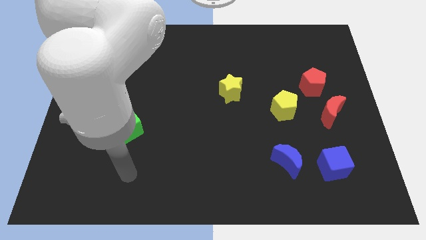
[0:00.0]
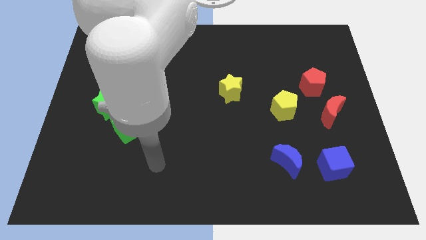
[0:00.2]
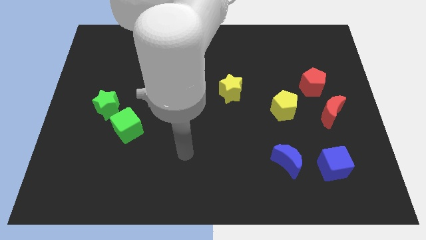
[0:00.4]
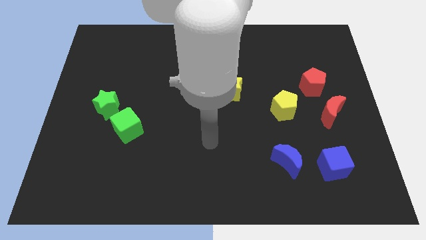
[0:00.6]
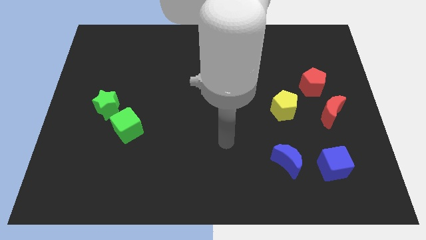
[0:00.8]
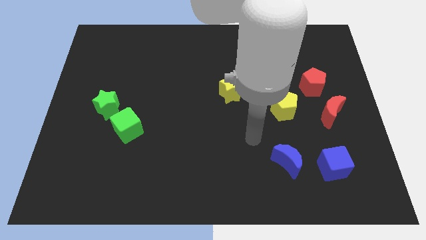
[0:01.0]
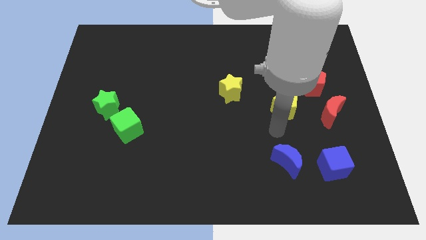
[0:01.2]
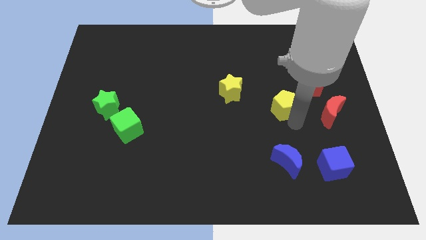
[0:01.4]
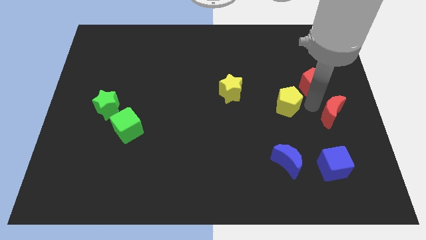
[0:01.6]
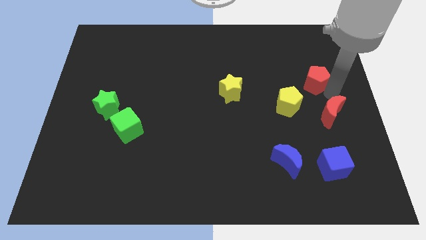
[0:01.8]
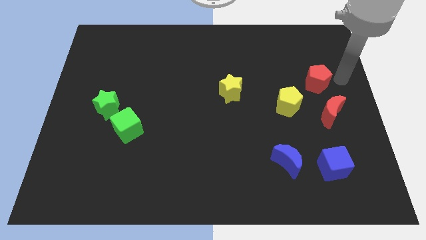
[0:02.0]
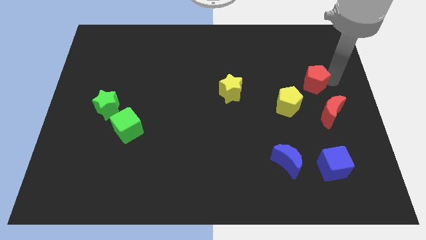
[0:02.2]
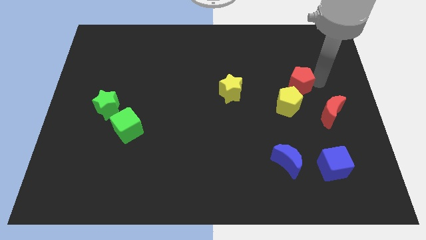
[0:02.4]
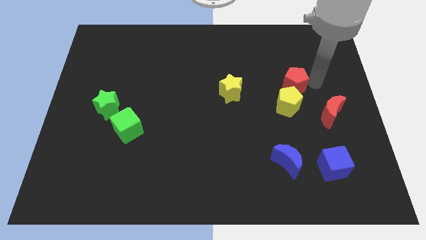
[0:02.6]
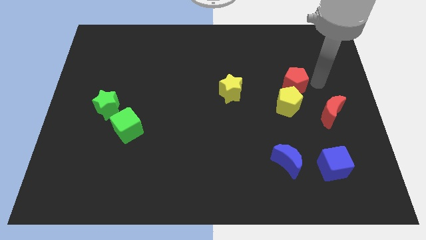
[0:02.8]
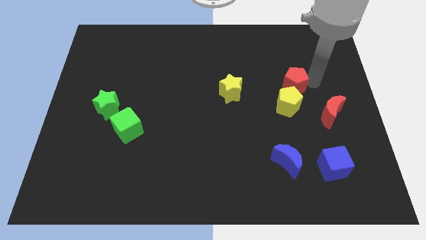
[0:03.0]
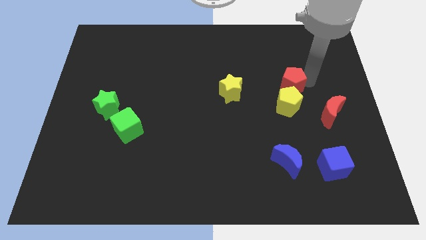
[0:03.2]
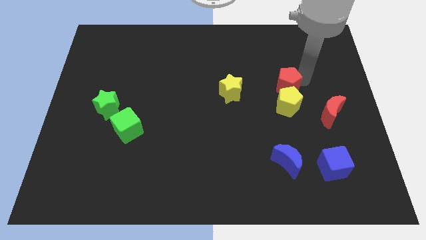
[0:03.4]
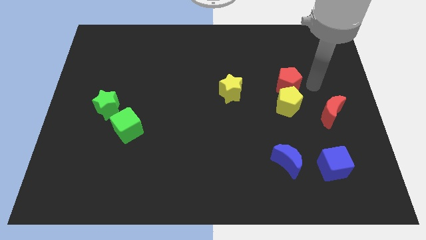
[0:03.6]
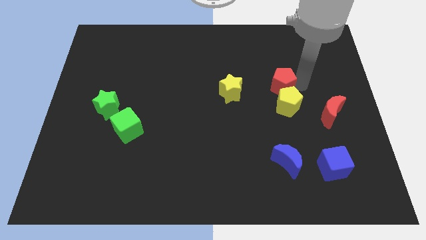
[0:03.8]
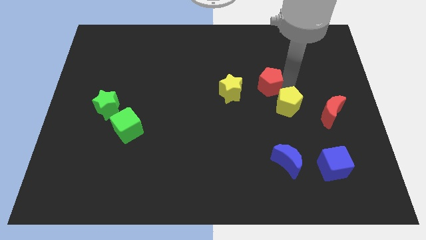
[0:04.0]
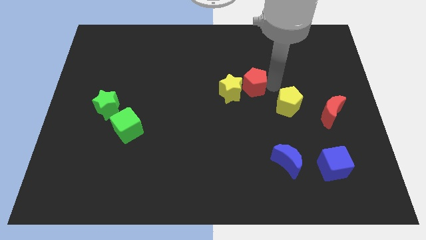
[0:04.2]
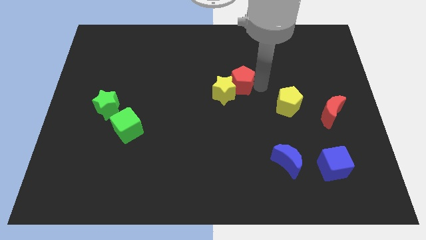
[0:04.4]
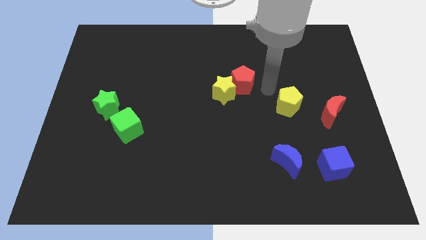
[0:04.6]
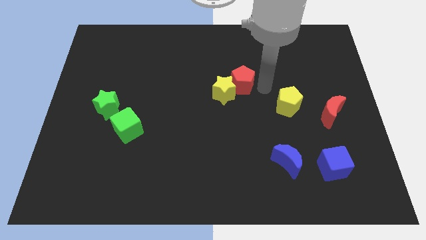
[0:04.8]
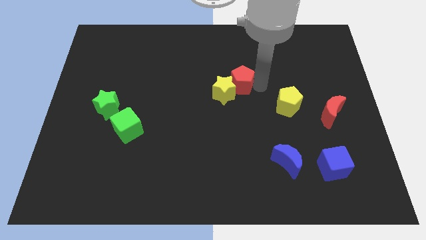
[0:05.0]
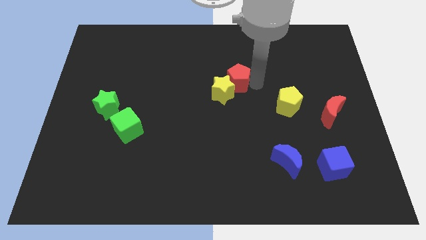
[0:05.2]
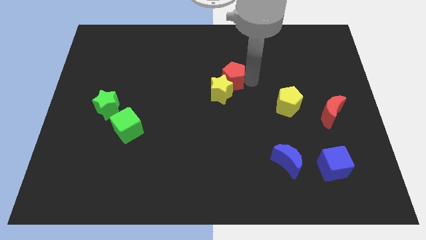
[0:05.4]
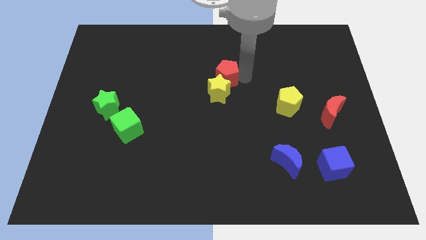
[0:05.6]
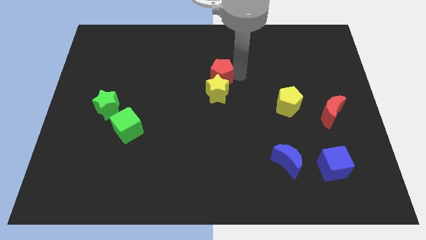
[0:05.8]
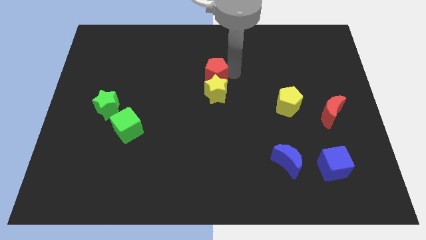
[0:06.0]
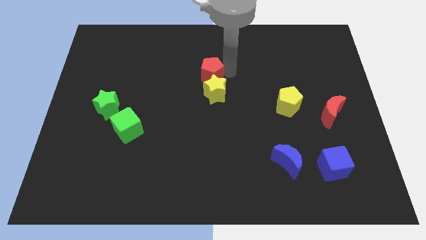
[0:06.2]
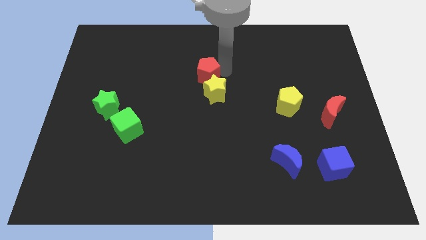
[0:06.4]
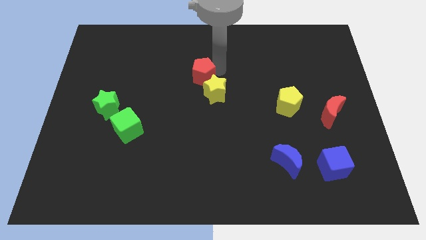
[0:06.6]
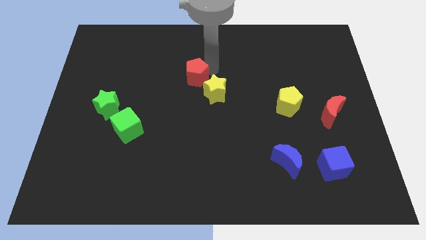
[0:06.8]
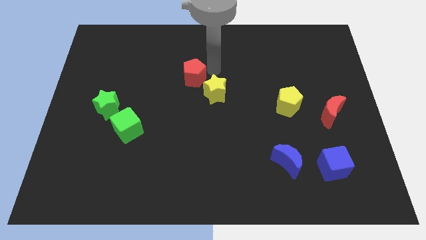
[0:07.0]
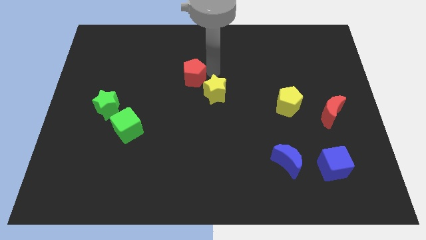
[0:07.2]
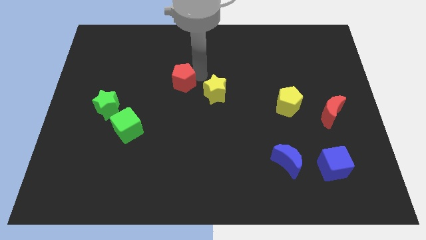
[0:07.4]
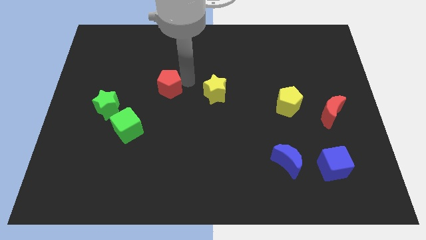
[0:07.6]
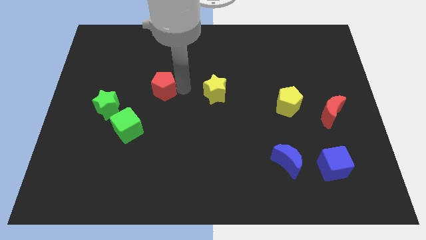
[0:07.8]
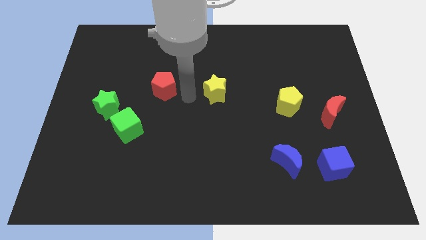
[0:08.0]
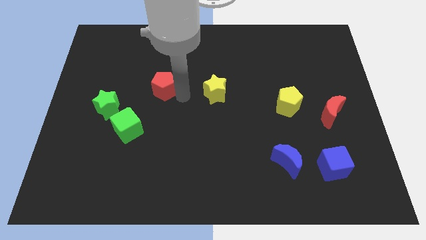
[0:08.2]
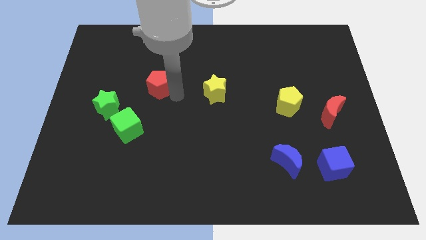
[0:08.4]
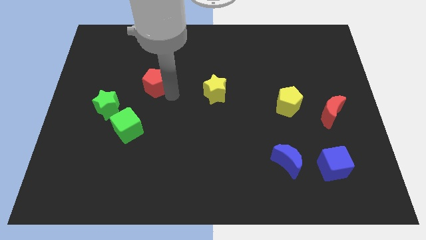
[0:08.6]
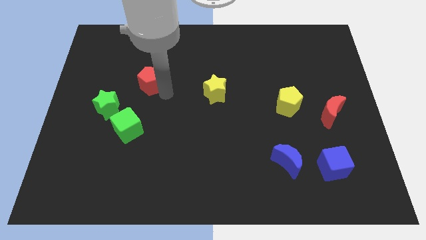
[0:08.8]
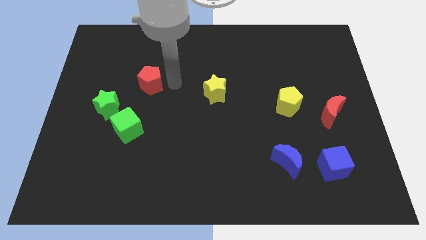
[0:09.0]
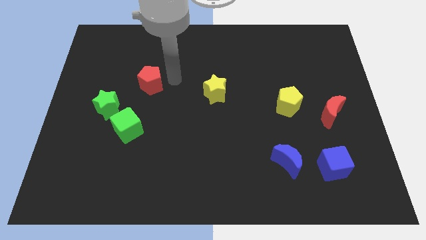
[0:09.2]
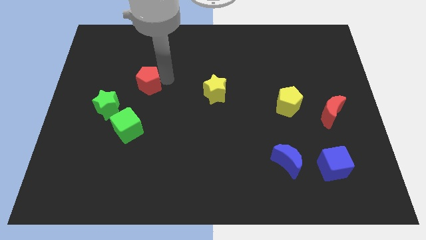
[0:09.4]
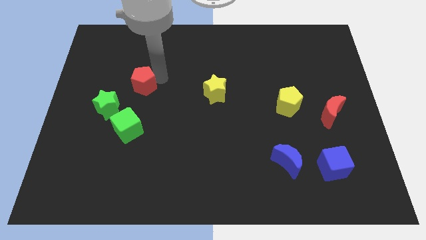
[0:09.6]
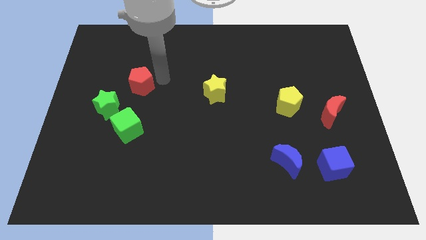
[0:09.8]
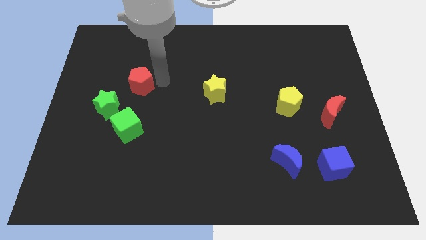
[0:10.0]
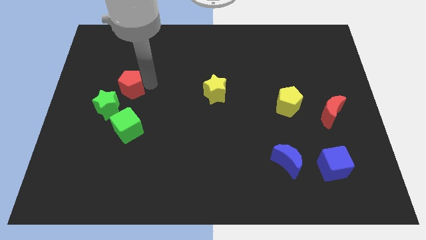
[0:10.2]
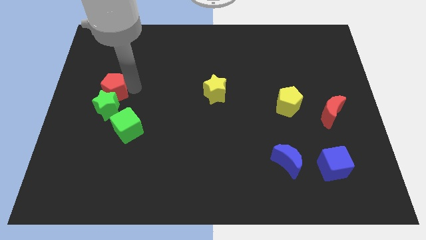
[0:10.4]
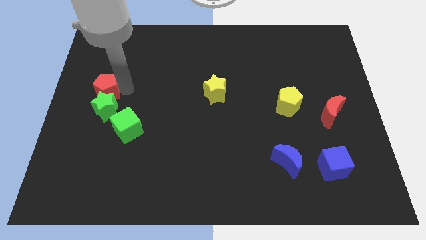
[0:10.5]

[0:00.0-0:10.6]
move the red pentagon to the left side of the board
